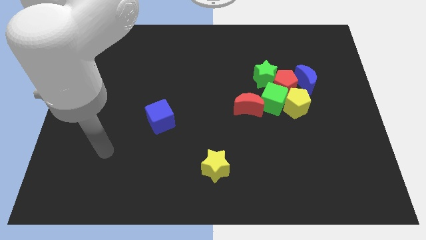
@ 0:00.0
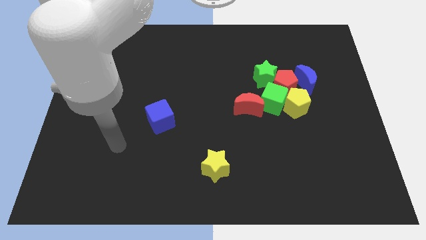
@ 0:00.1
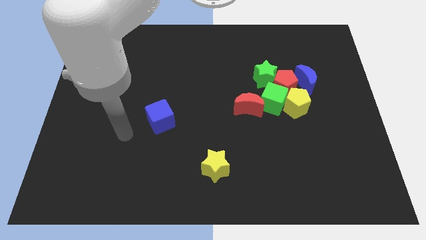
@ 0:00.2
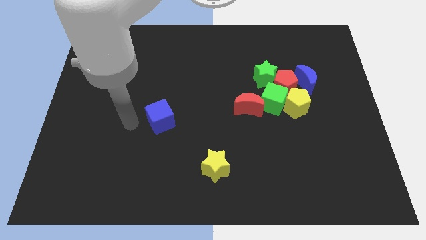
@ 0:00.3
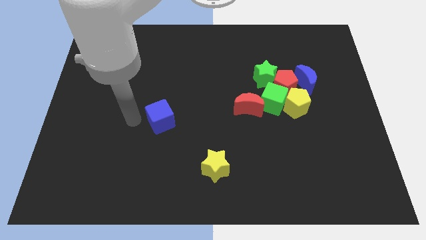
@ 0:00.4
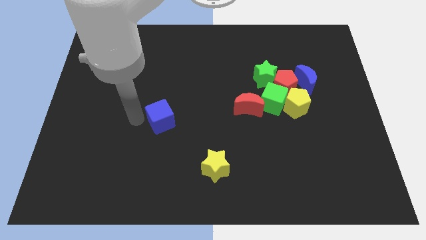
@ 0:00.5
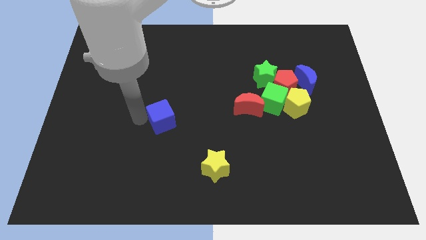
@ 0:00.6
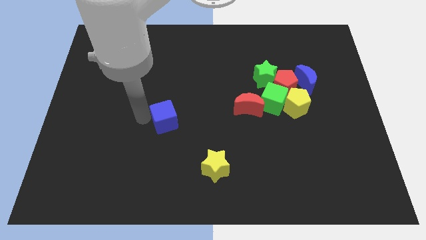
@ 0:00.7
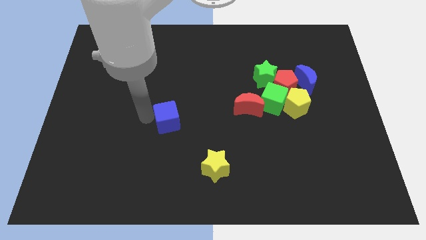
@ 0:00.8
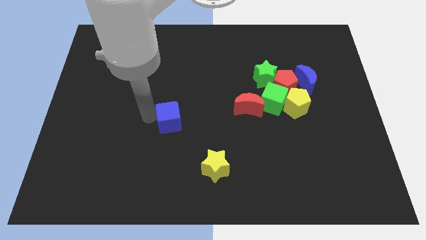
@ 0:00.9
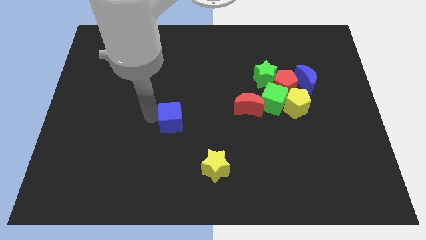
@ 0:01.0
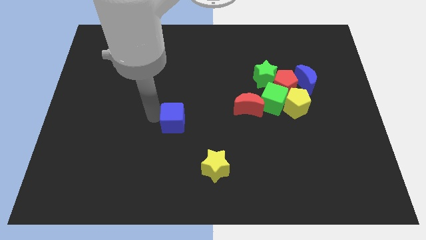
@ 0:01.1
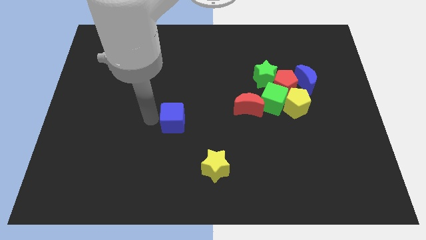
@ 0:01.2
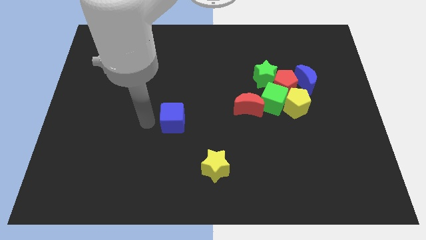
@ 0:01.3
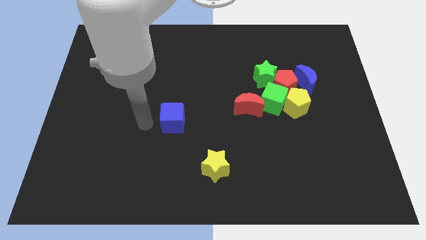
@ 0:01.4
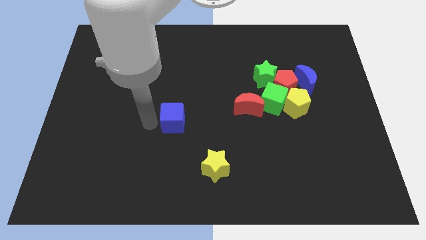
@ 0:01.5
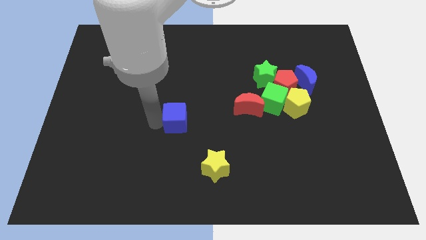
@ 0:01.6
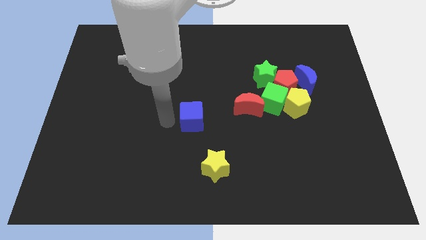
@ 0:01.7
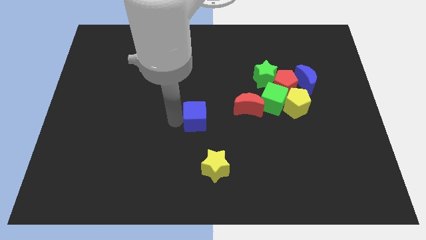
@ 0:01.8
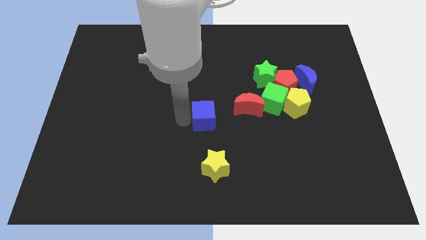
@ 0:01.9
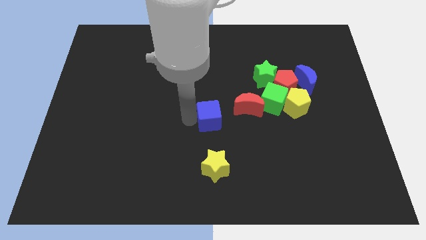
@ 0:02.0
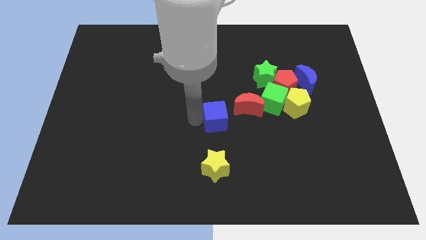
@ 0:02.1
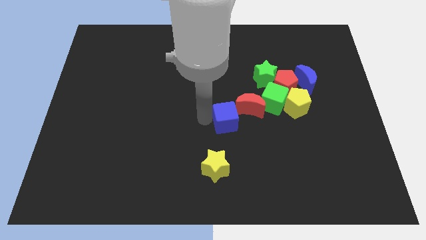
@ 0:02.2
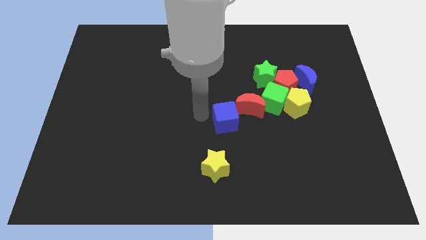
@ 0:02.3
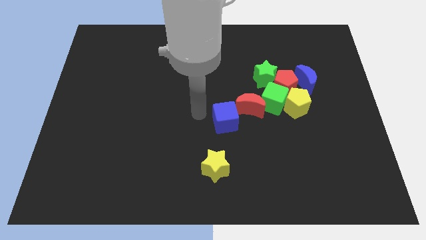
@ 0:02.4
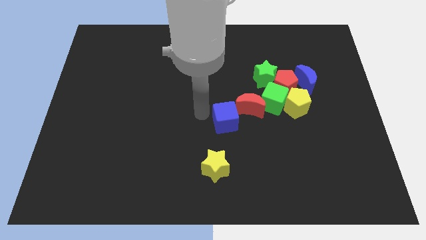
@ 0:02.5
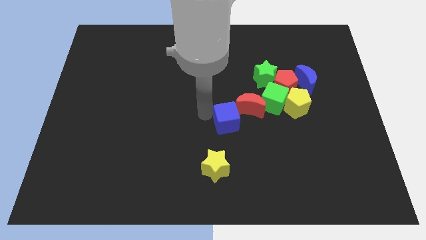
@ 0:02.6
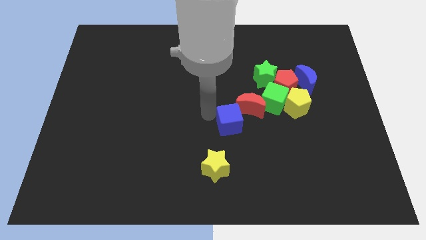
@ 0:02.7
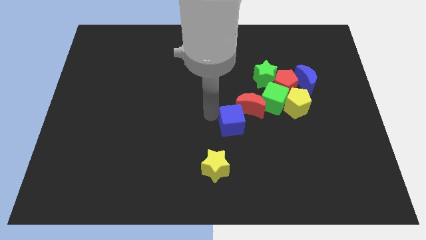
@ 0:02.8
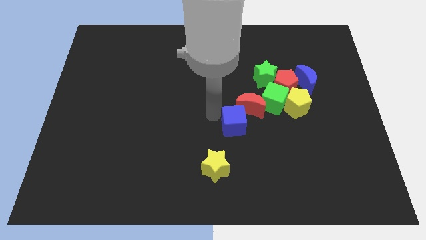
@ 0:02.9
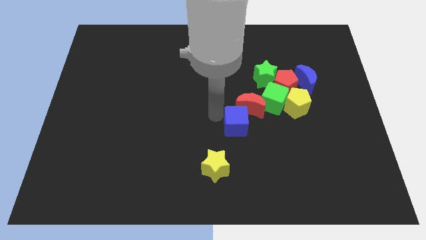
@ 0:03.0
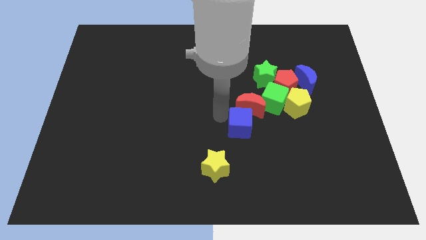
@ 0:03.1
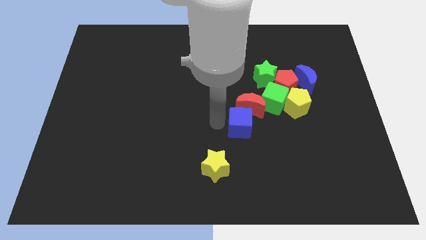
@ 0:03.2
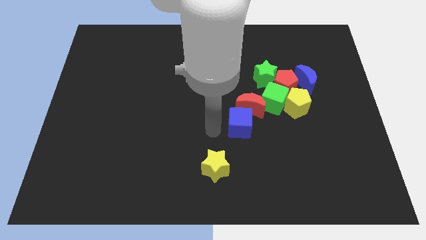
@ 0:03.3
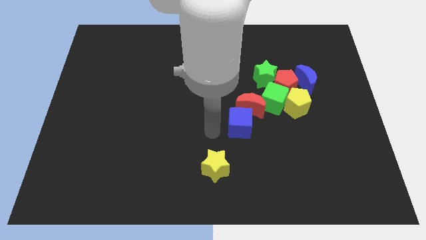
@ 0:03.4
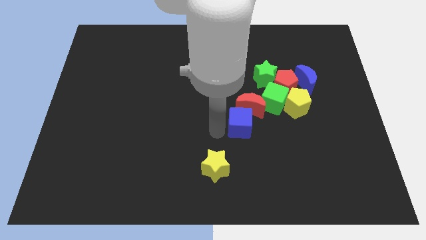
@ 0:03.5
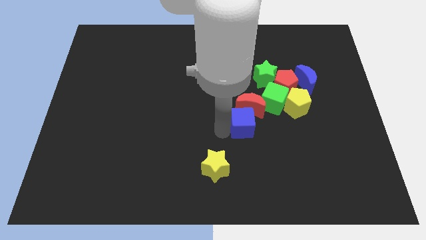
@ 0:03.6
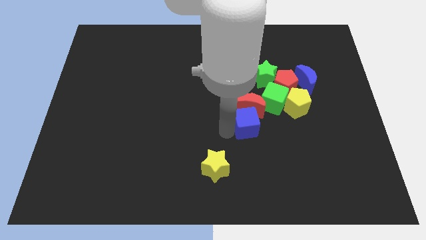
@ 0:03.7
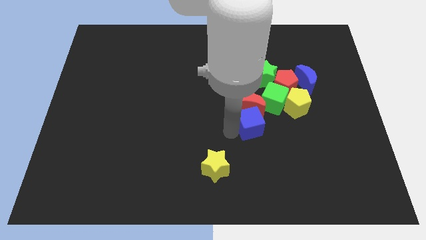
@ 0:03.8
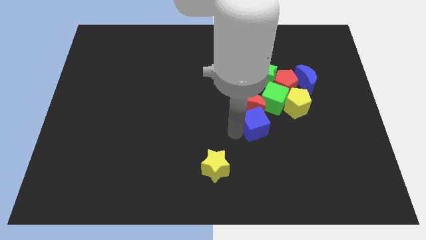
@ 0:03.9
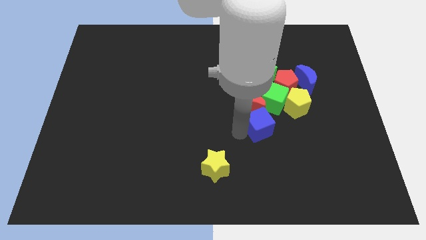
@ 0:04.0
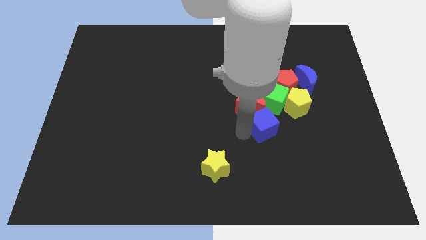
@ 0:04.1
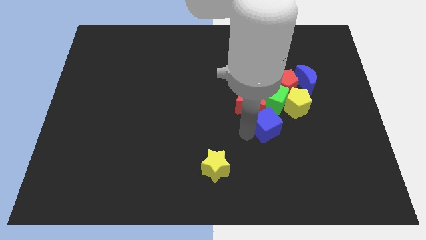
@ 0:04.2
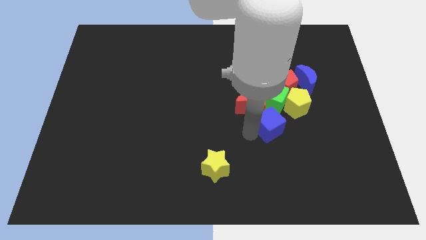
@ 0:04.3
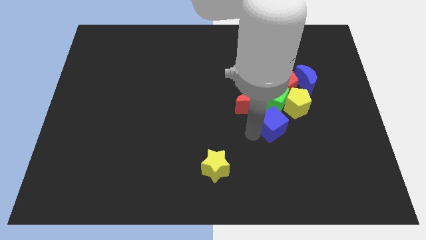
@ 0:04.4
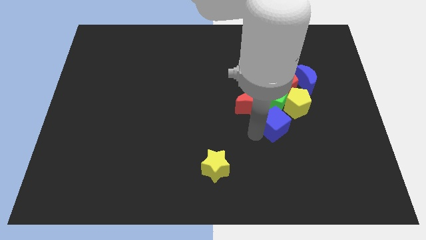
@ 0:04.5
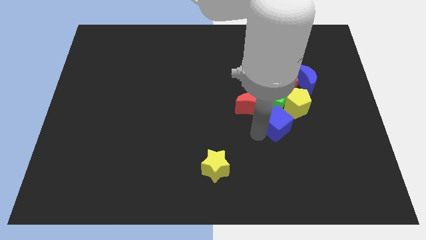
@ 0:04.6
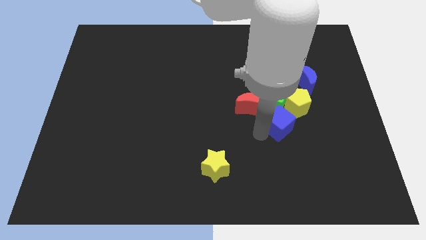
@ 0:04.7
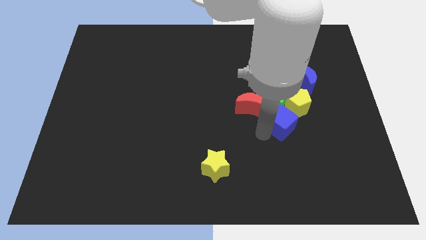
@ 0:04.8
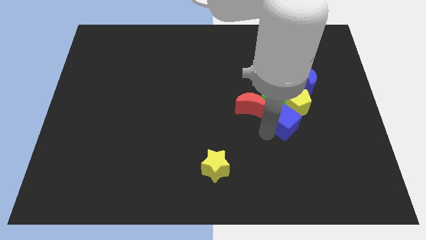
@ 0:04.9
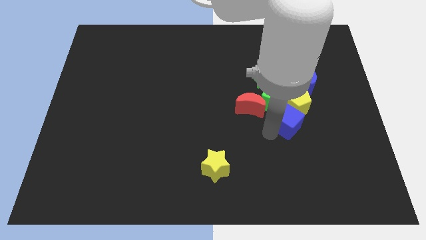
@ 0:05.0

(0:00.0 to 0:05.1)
put the blue cube next to the yellow pentagon

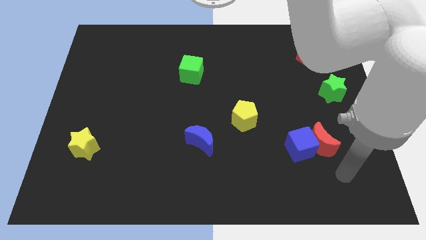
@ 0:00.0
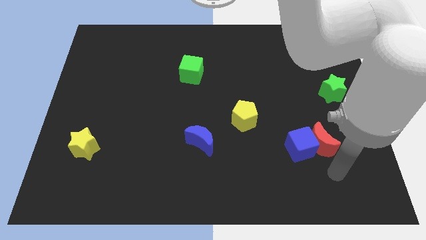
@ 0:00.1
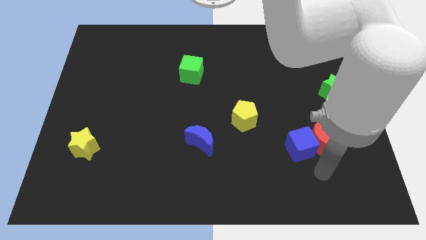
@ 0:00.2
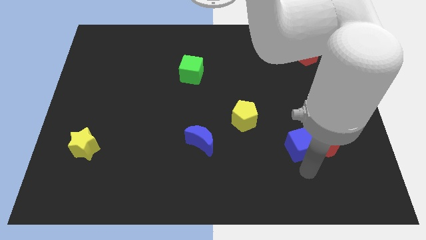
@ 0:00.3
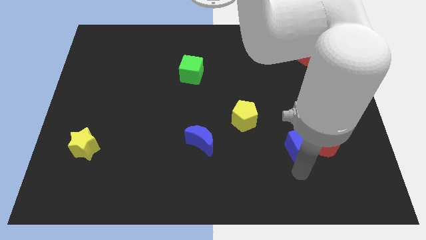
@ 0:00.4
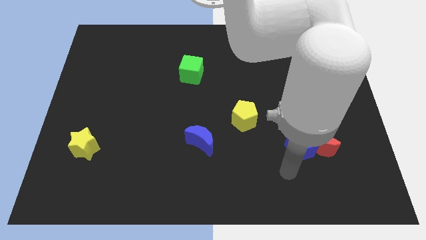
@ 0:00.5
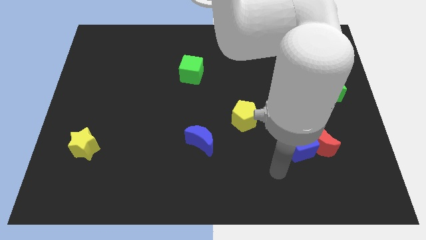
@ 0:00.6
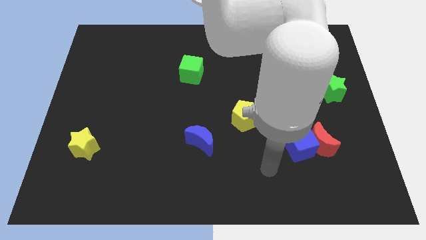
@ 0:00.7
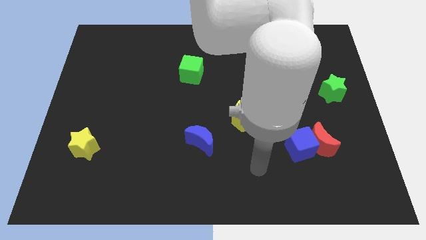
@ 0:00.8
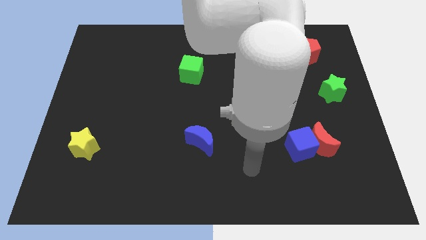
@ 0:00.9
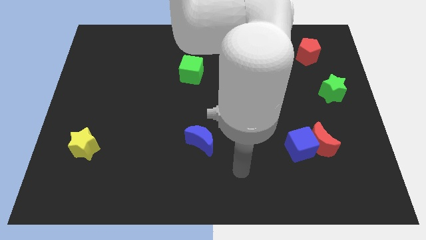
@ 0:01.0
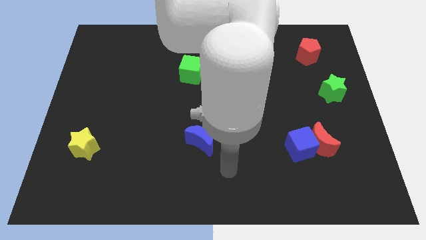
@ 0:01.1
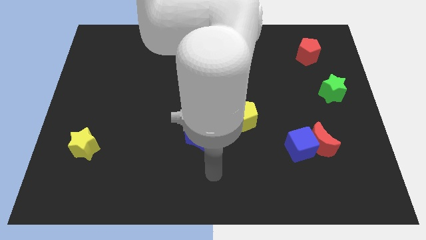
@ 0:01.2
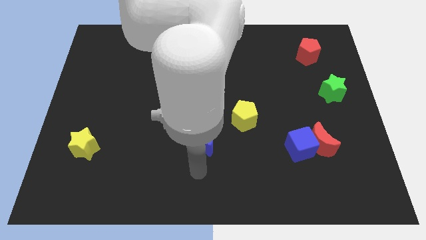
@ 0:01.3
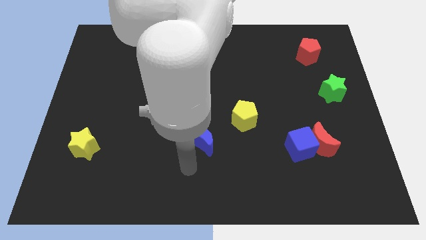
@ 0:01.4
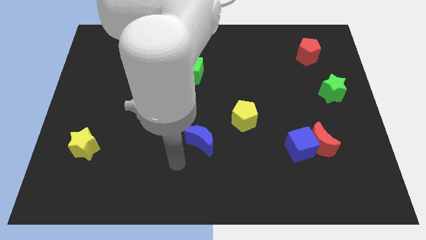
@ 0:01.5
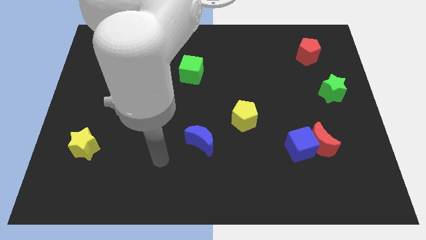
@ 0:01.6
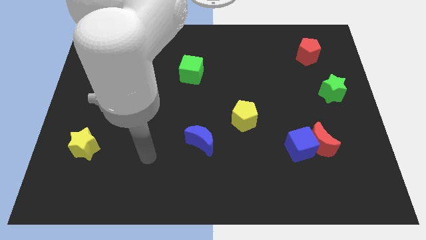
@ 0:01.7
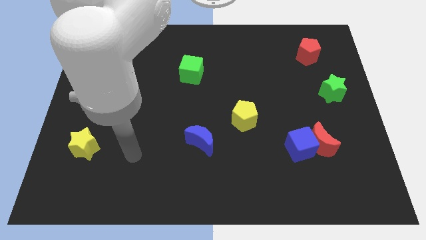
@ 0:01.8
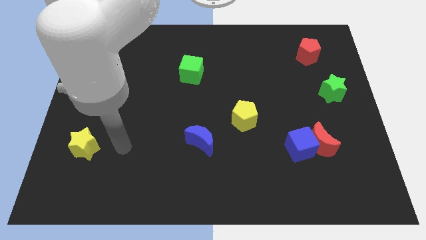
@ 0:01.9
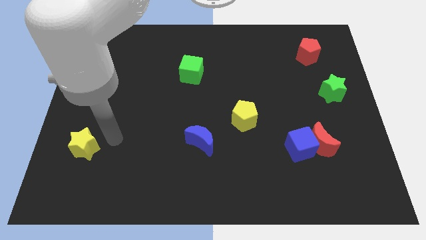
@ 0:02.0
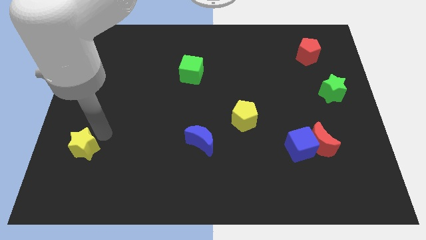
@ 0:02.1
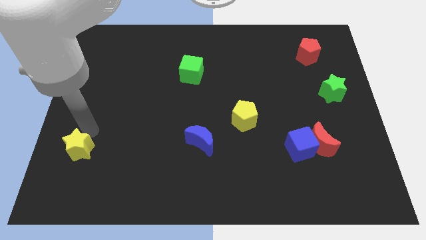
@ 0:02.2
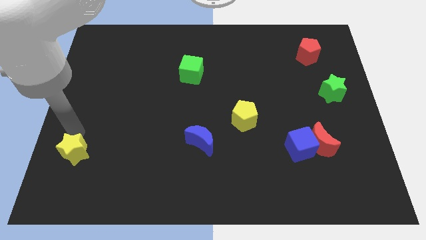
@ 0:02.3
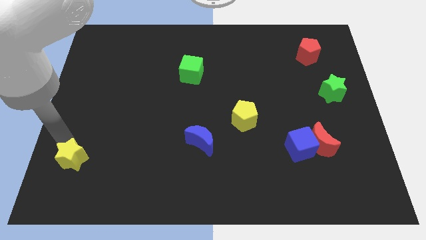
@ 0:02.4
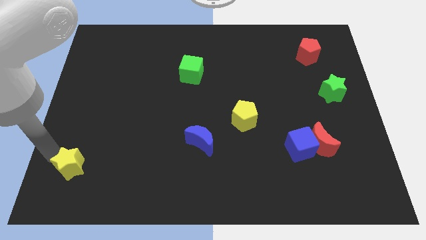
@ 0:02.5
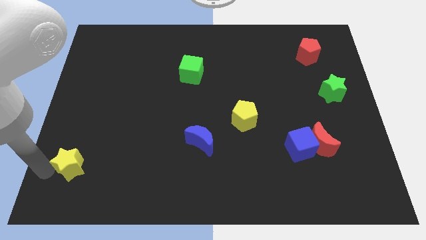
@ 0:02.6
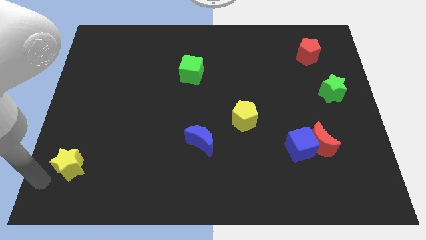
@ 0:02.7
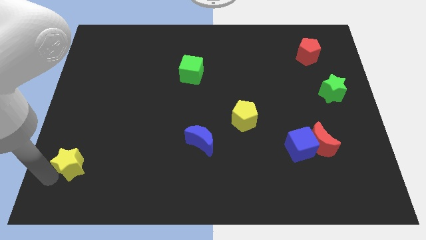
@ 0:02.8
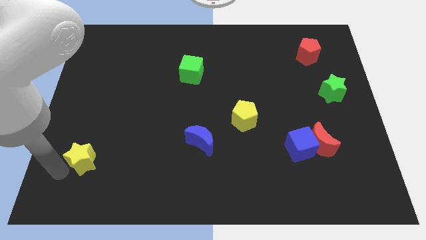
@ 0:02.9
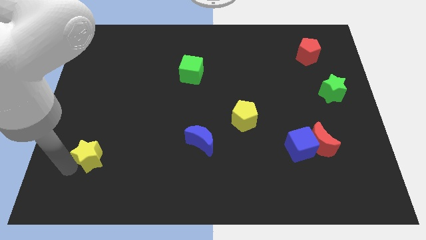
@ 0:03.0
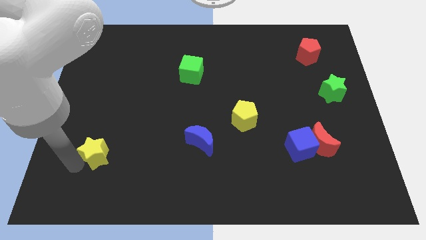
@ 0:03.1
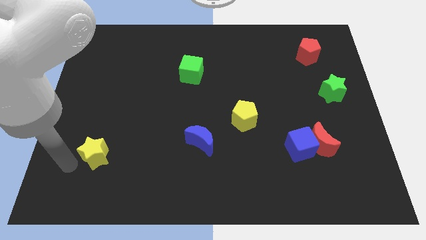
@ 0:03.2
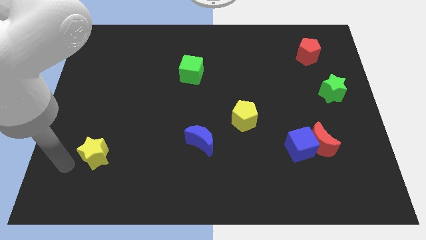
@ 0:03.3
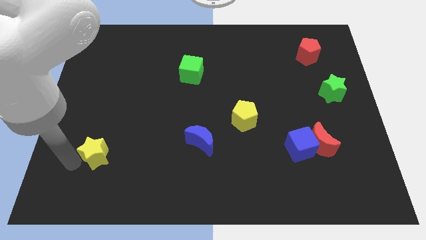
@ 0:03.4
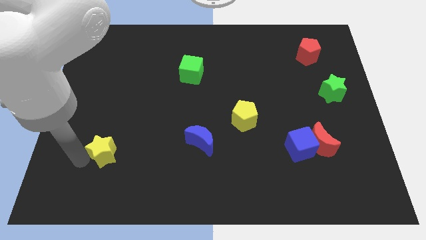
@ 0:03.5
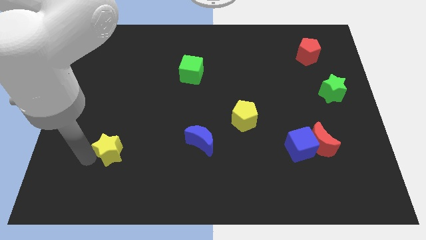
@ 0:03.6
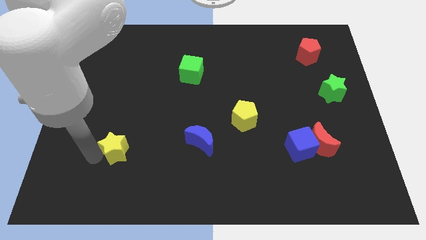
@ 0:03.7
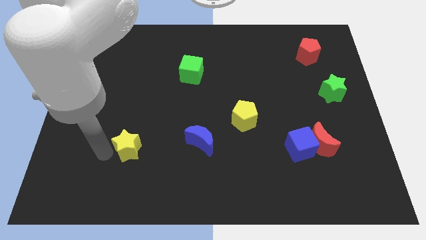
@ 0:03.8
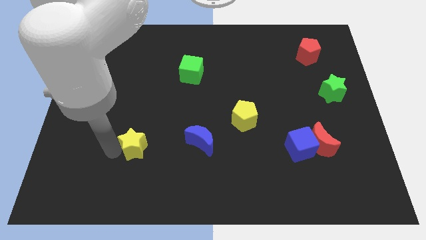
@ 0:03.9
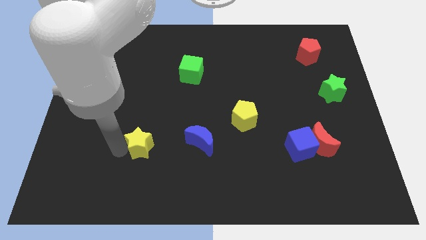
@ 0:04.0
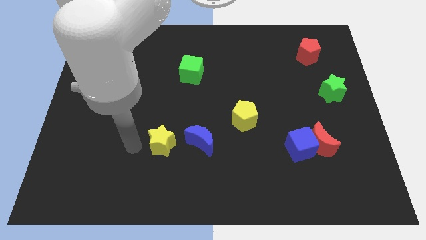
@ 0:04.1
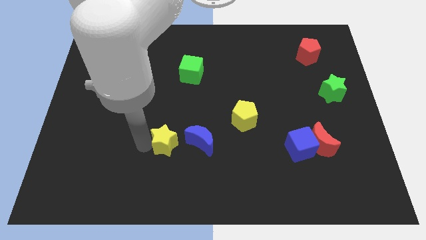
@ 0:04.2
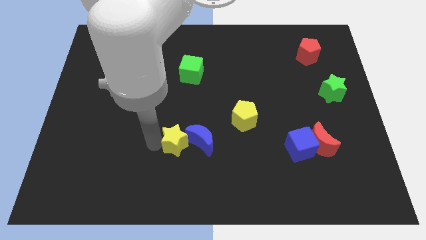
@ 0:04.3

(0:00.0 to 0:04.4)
slide the yellow star close to the blue moon
